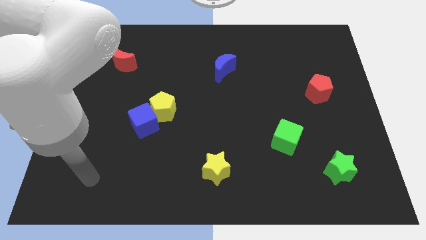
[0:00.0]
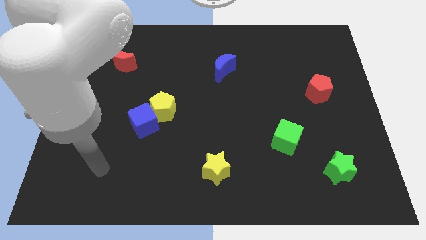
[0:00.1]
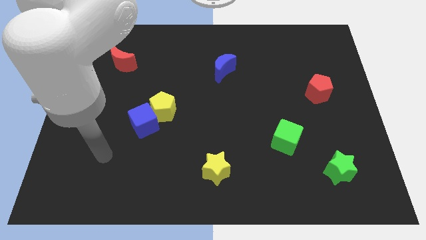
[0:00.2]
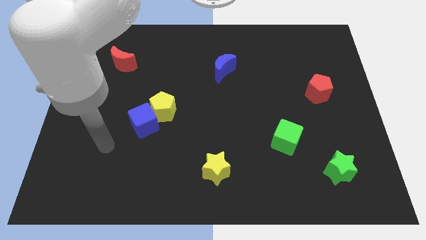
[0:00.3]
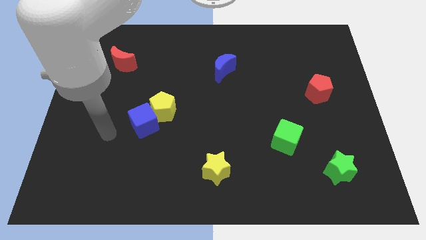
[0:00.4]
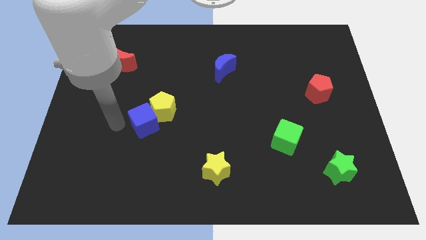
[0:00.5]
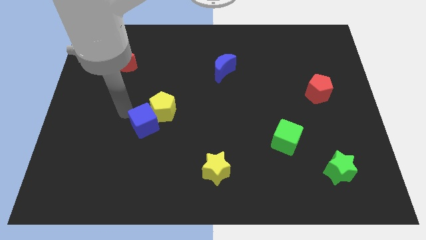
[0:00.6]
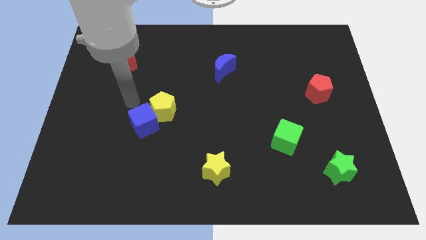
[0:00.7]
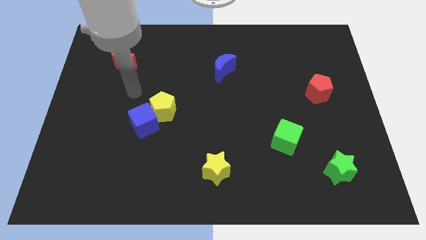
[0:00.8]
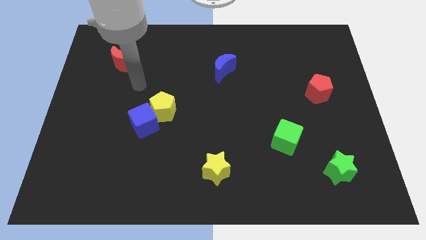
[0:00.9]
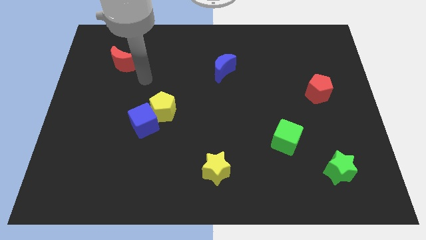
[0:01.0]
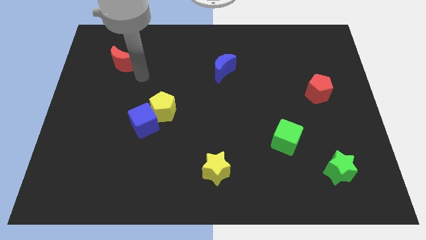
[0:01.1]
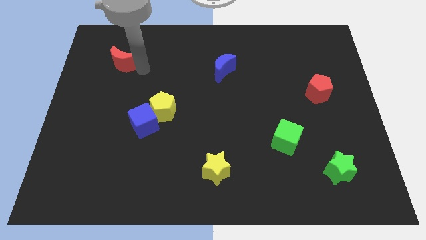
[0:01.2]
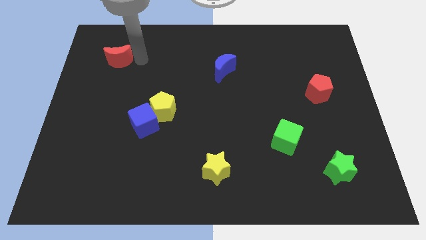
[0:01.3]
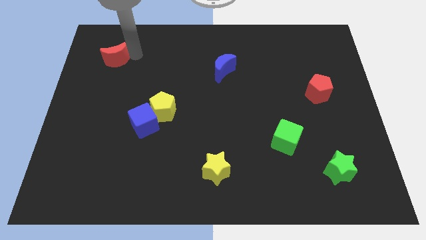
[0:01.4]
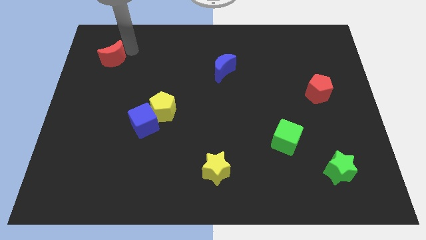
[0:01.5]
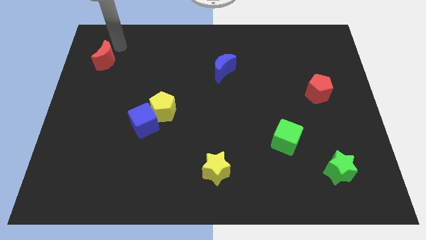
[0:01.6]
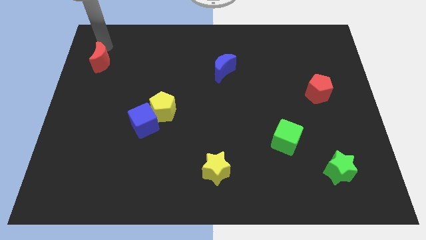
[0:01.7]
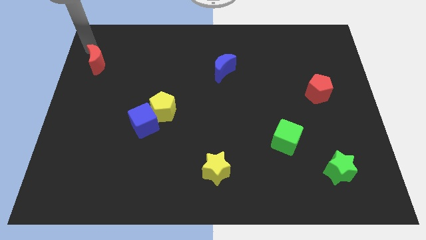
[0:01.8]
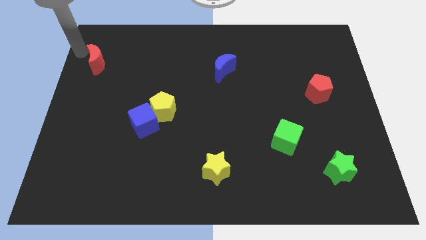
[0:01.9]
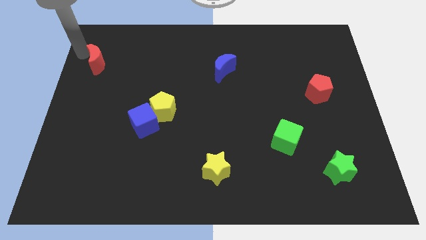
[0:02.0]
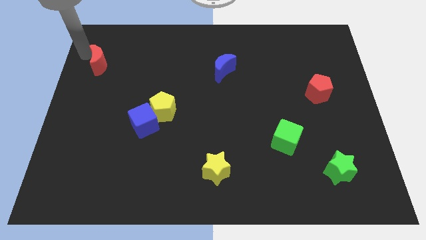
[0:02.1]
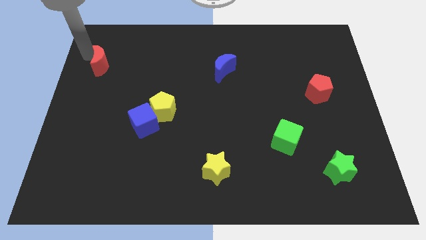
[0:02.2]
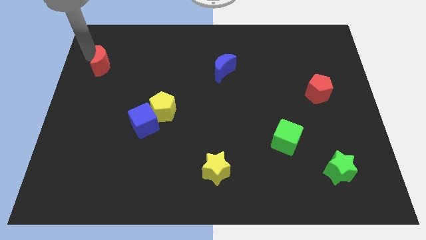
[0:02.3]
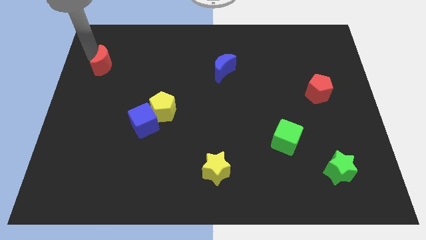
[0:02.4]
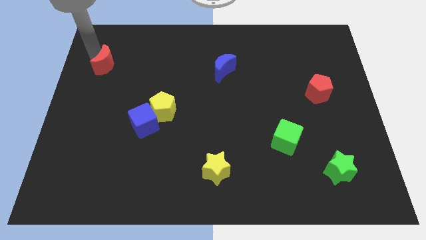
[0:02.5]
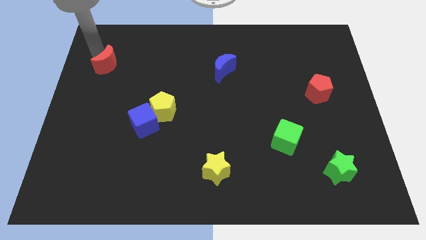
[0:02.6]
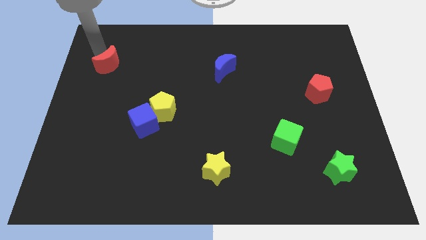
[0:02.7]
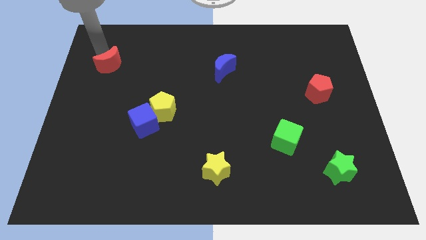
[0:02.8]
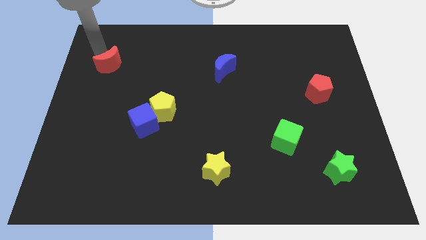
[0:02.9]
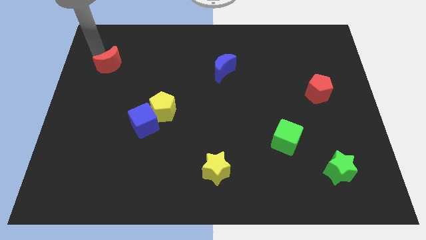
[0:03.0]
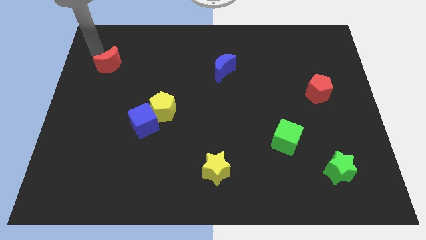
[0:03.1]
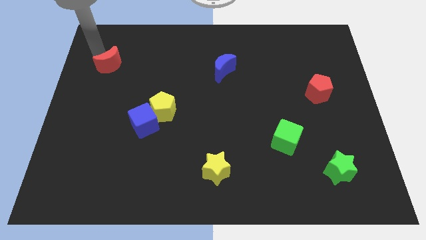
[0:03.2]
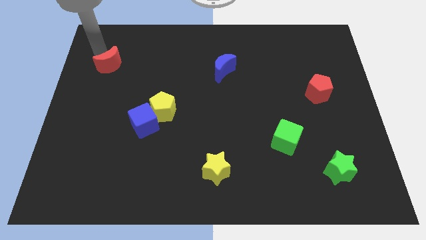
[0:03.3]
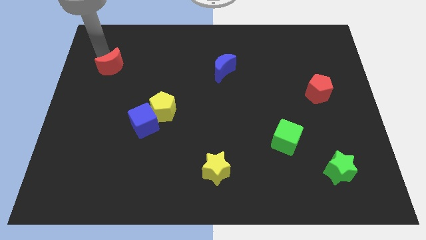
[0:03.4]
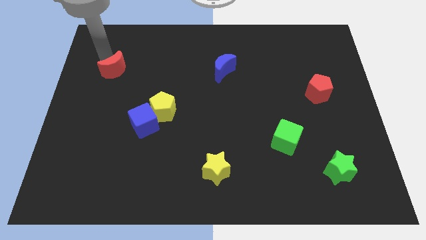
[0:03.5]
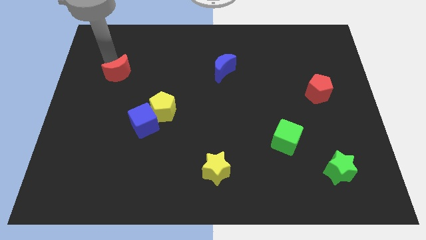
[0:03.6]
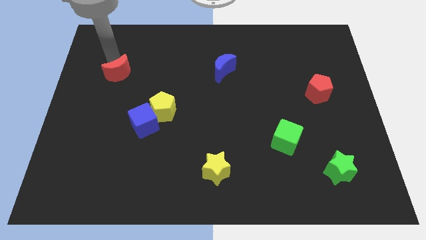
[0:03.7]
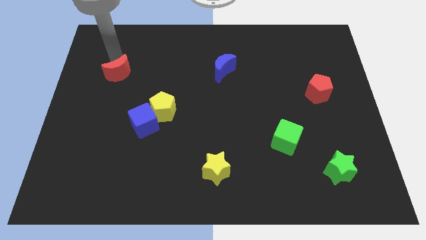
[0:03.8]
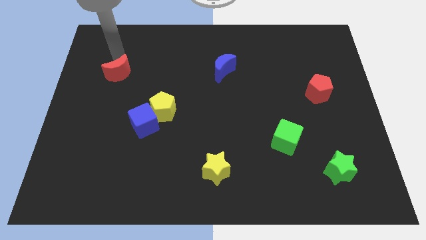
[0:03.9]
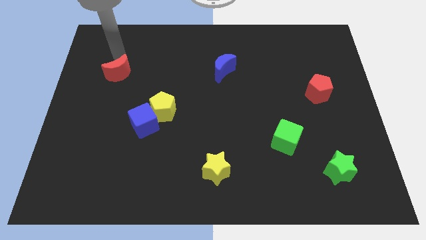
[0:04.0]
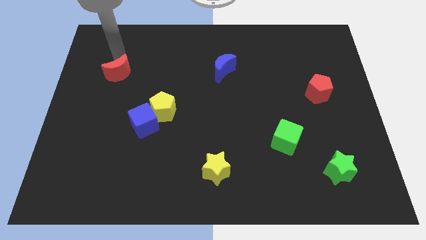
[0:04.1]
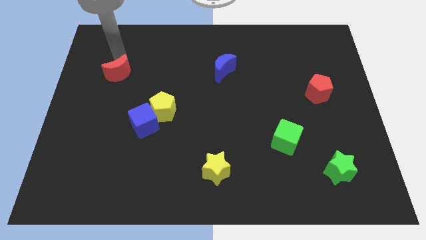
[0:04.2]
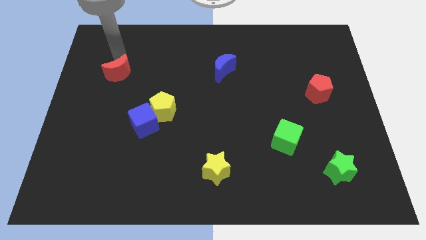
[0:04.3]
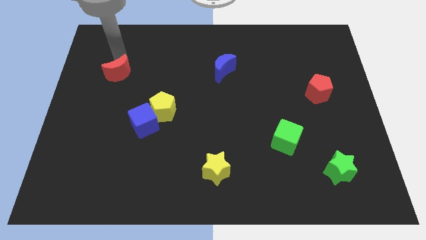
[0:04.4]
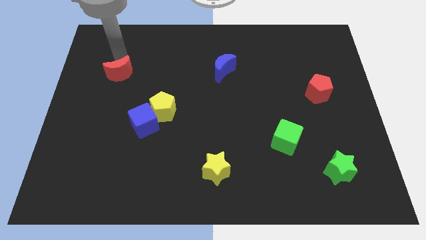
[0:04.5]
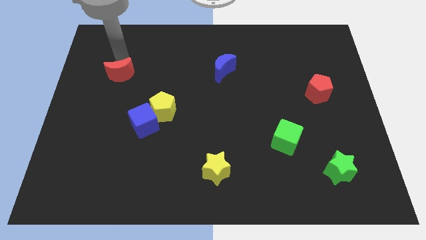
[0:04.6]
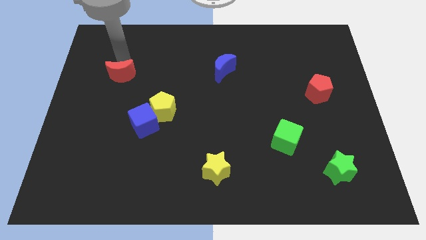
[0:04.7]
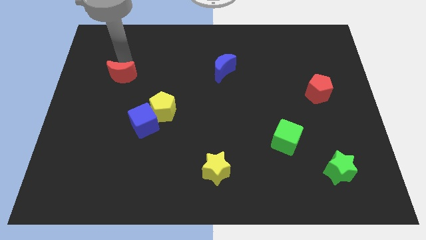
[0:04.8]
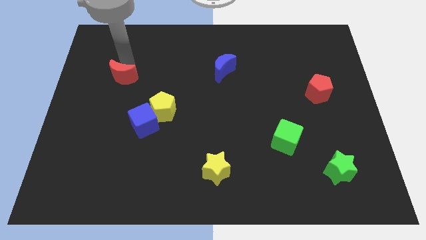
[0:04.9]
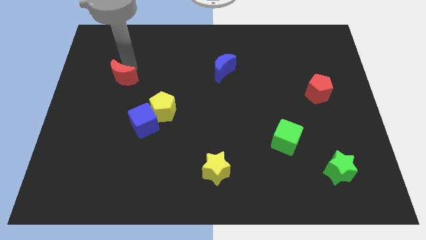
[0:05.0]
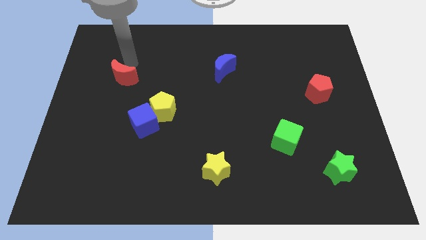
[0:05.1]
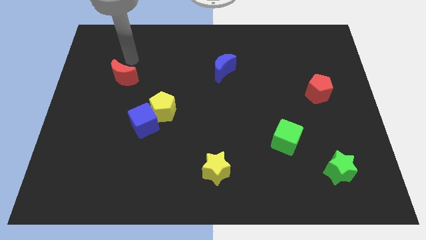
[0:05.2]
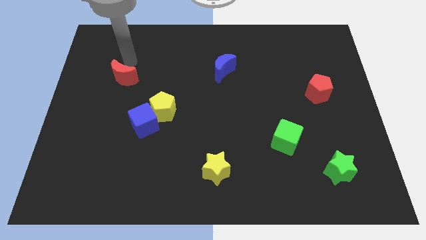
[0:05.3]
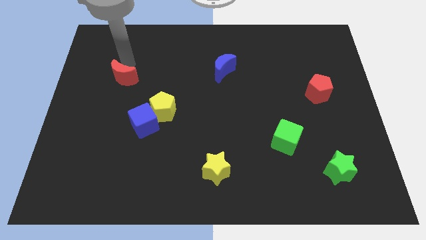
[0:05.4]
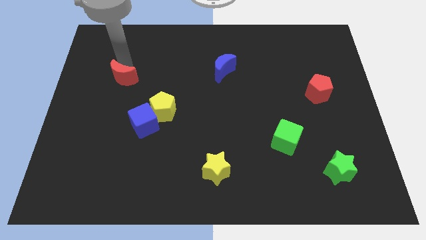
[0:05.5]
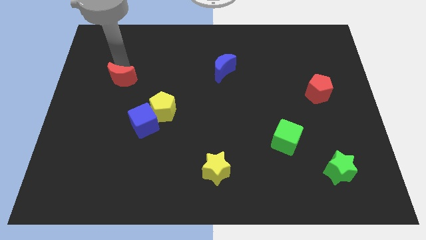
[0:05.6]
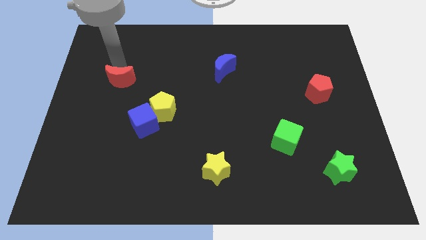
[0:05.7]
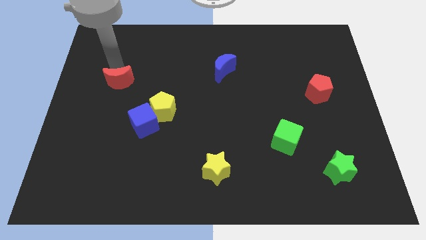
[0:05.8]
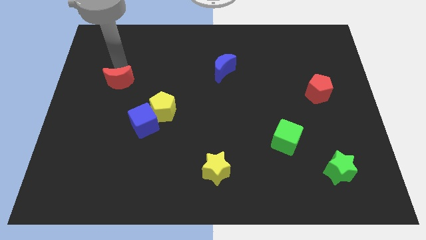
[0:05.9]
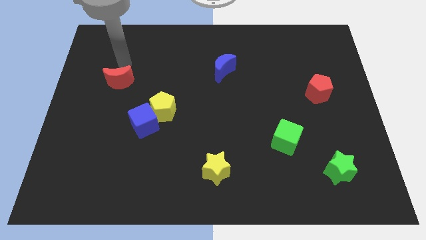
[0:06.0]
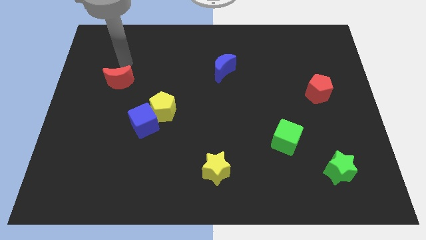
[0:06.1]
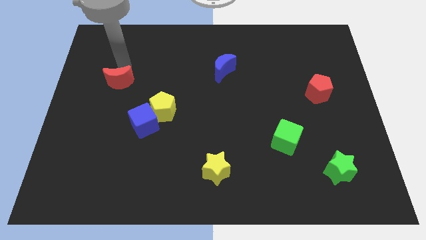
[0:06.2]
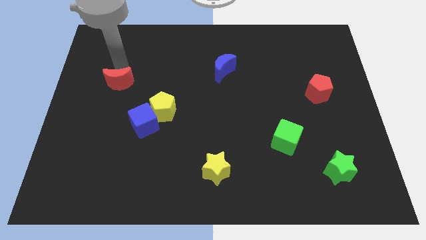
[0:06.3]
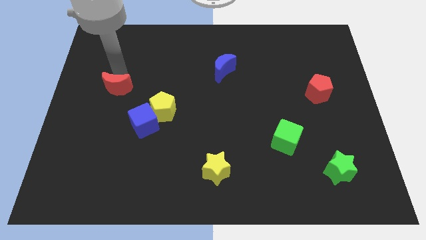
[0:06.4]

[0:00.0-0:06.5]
slightly push the red moon down

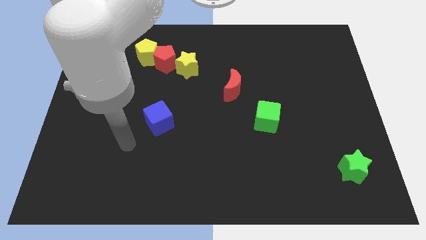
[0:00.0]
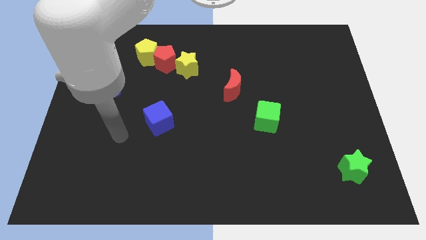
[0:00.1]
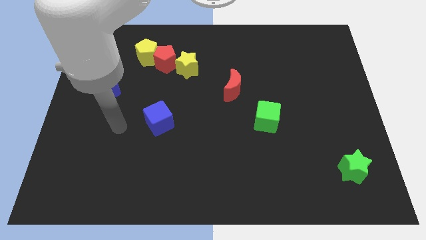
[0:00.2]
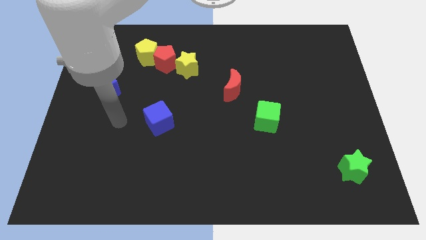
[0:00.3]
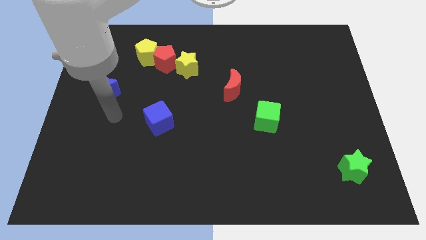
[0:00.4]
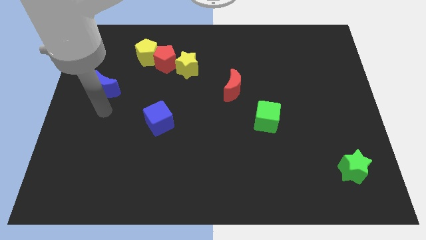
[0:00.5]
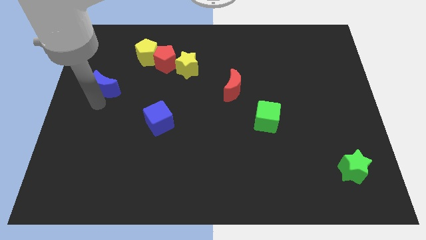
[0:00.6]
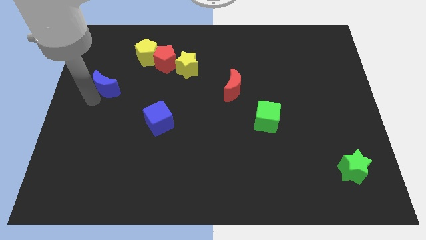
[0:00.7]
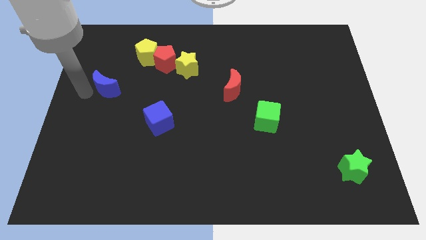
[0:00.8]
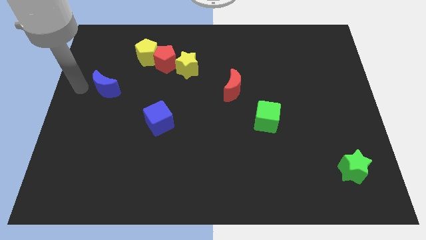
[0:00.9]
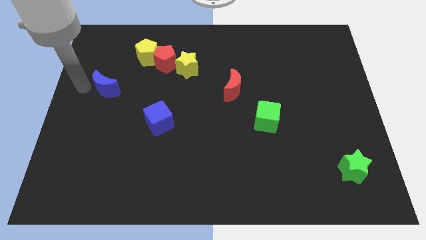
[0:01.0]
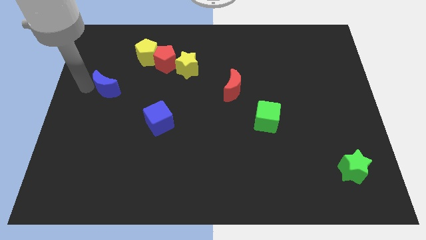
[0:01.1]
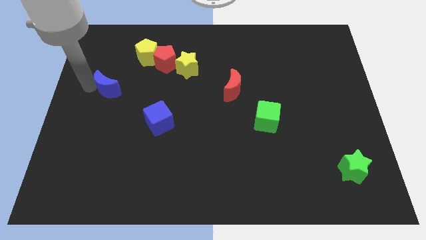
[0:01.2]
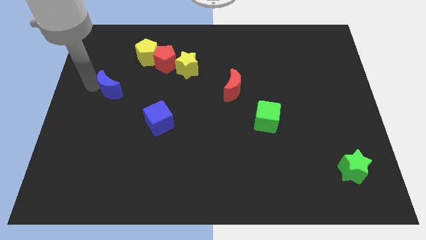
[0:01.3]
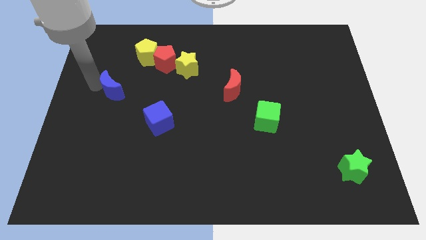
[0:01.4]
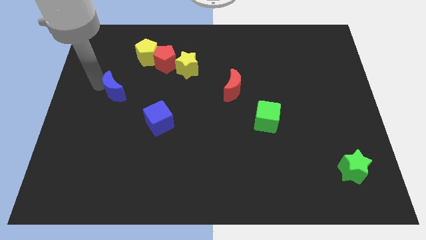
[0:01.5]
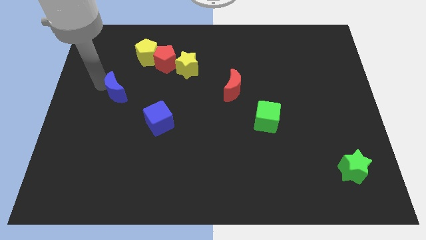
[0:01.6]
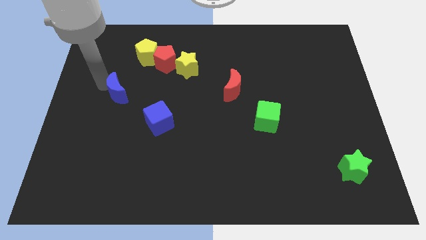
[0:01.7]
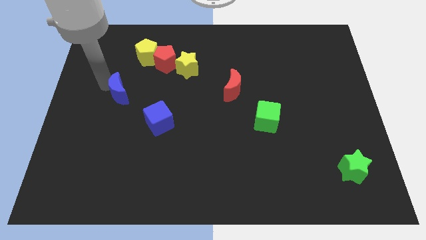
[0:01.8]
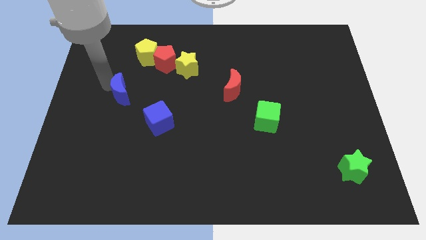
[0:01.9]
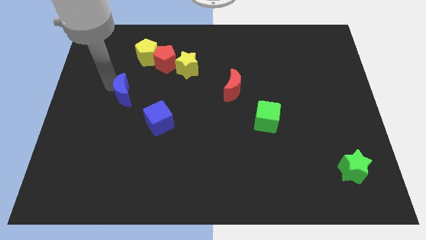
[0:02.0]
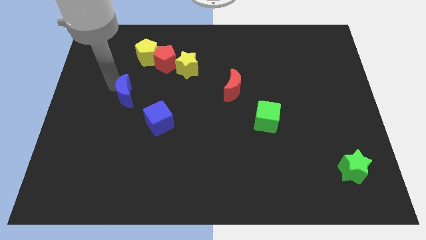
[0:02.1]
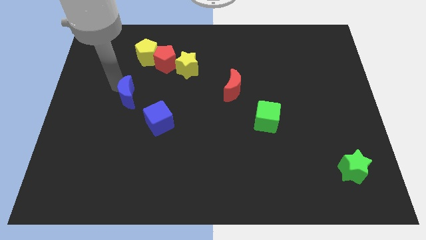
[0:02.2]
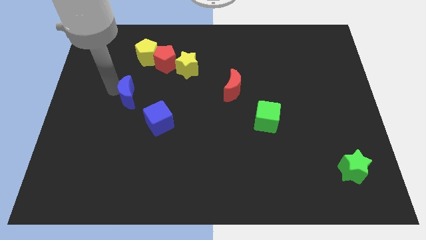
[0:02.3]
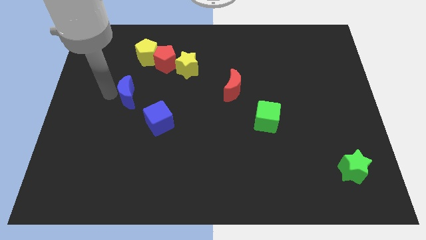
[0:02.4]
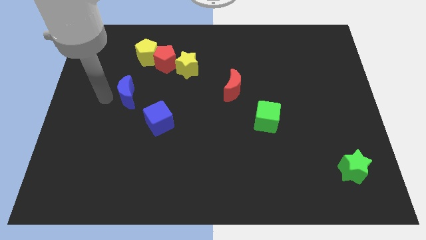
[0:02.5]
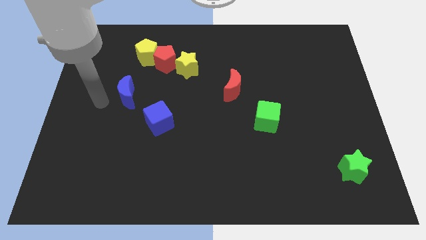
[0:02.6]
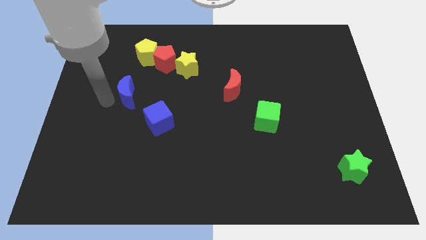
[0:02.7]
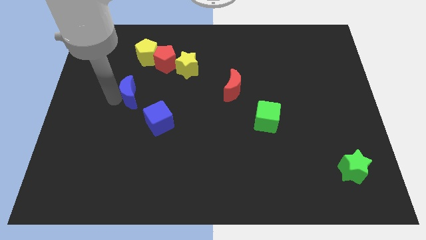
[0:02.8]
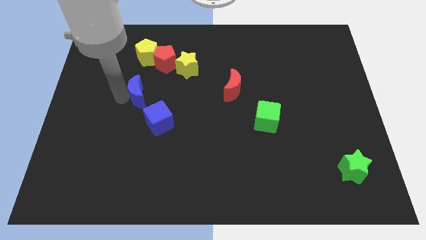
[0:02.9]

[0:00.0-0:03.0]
slightly move the blue moon to the right
